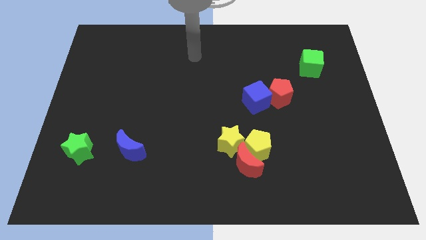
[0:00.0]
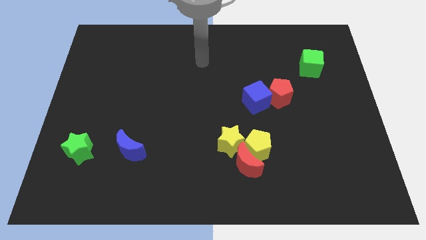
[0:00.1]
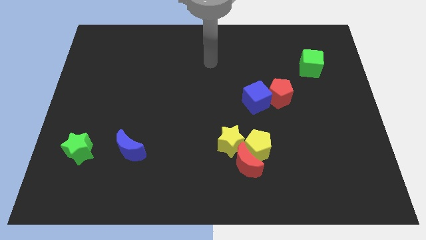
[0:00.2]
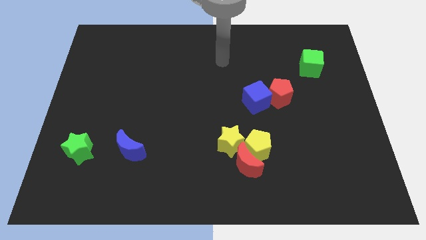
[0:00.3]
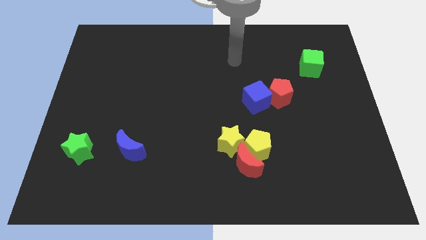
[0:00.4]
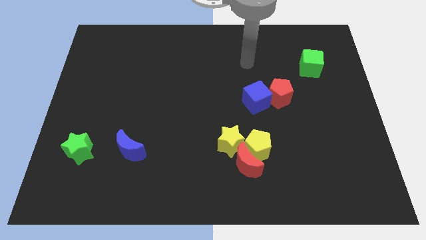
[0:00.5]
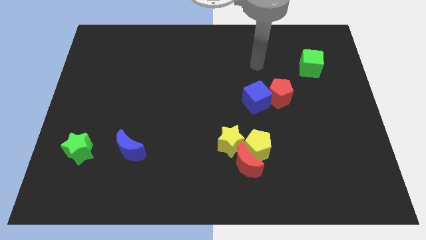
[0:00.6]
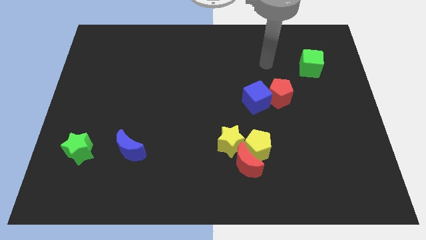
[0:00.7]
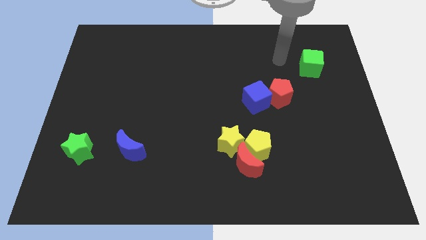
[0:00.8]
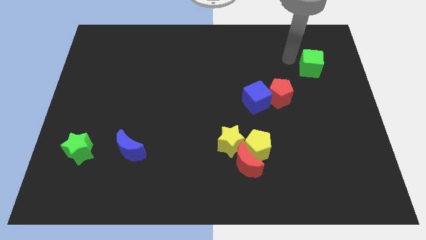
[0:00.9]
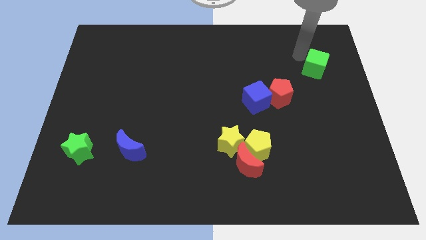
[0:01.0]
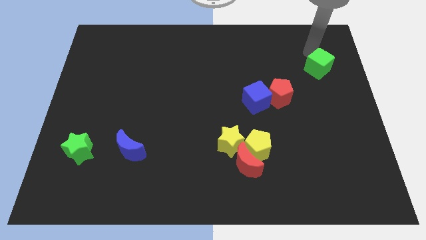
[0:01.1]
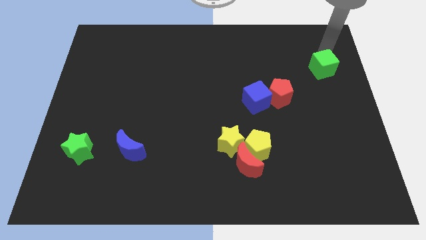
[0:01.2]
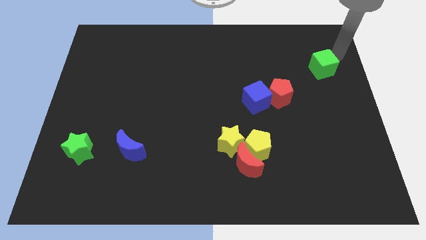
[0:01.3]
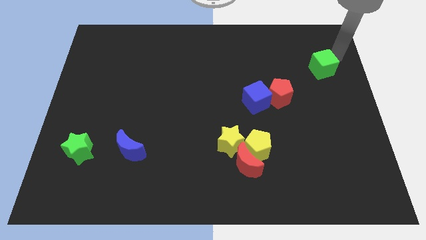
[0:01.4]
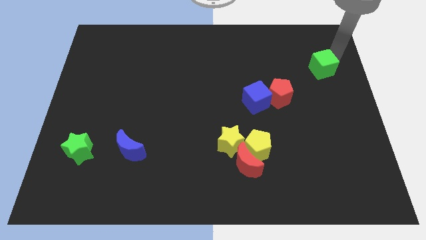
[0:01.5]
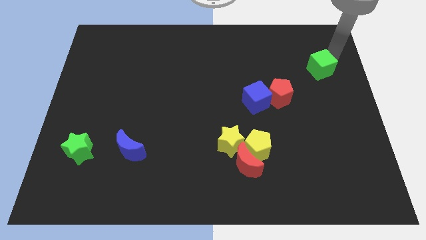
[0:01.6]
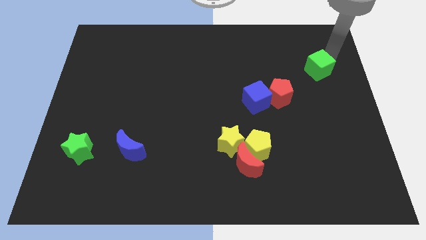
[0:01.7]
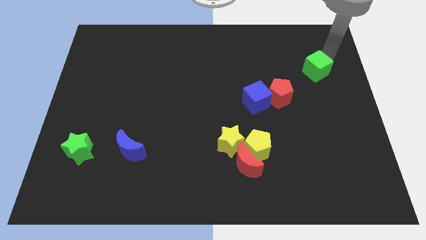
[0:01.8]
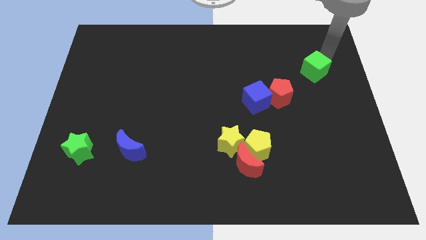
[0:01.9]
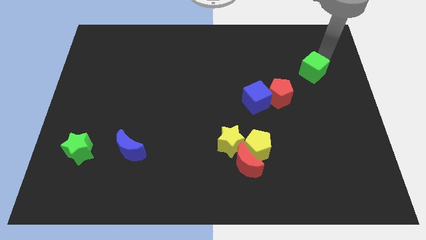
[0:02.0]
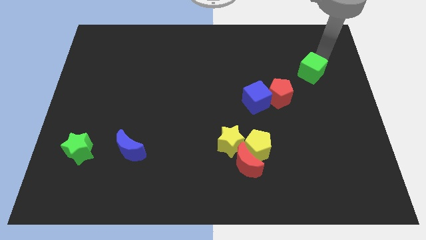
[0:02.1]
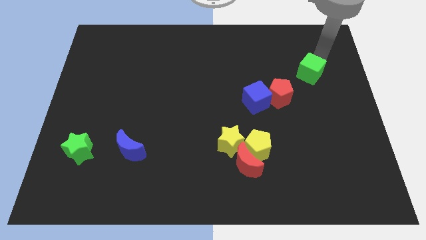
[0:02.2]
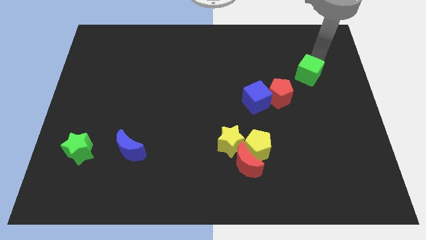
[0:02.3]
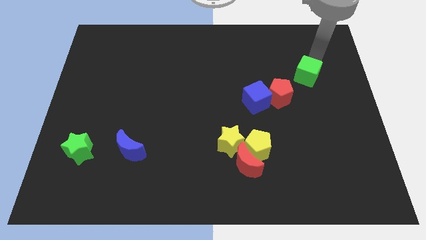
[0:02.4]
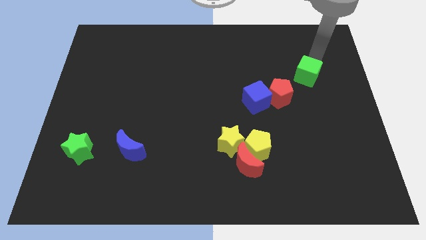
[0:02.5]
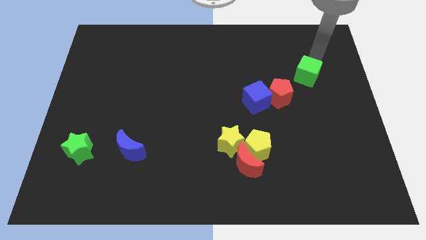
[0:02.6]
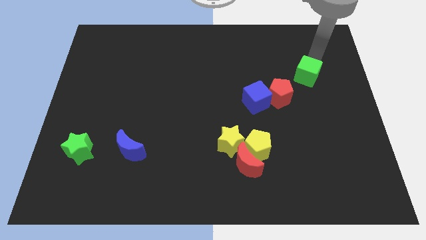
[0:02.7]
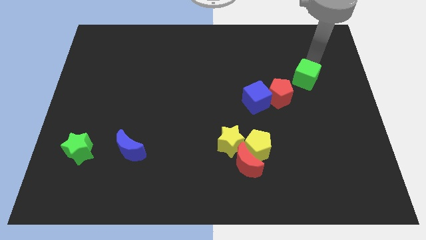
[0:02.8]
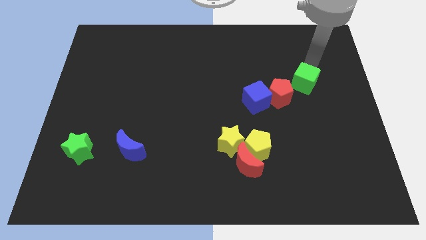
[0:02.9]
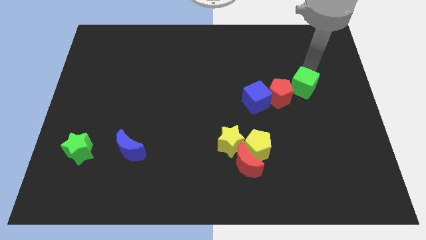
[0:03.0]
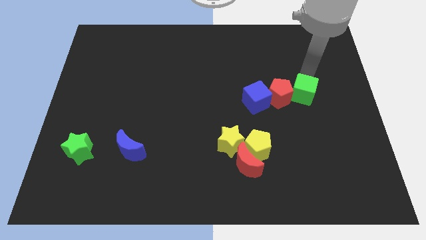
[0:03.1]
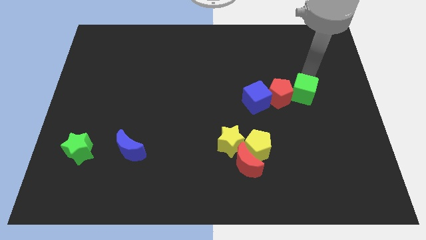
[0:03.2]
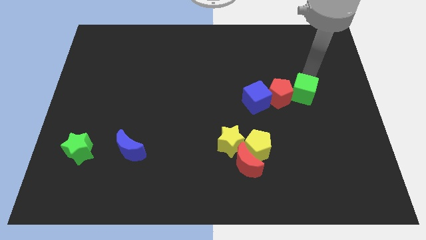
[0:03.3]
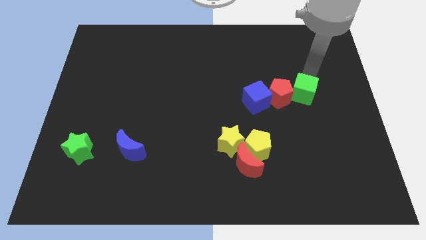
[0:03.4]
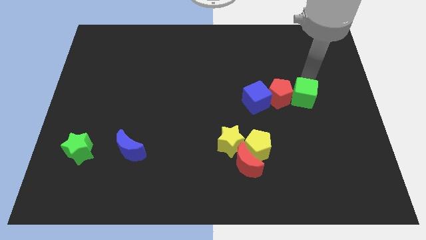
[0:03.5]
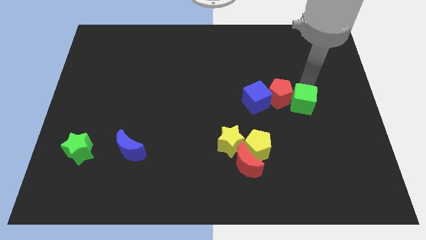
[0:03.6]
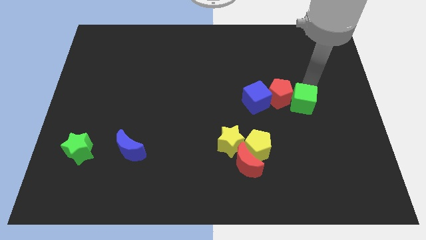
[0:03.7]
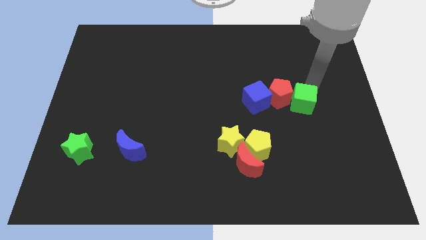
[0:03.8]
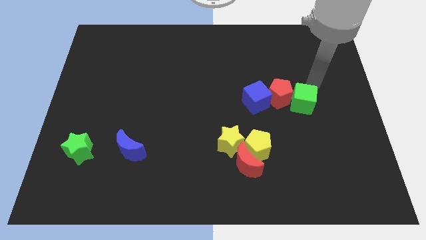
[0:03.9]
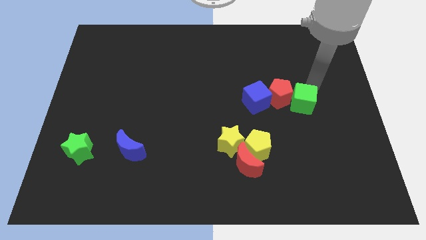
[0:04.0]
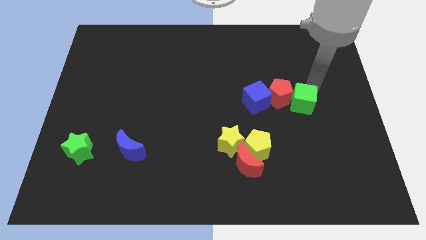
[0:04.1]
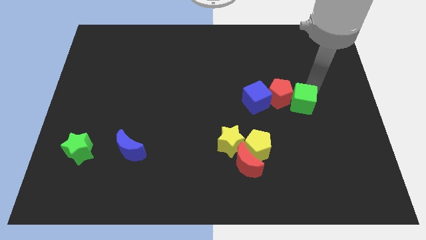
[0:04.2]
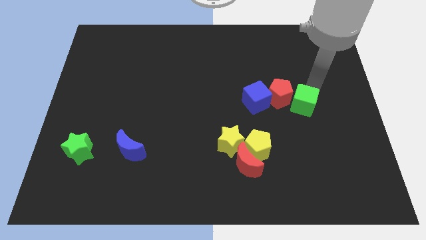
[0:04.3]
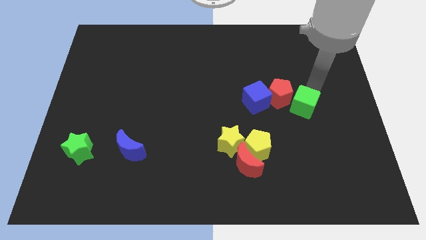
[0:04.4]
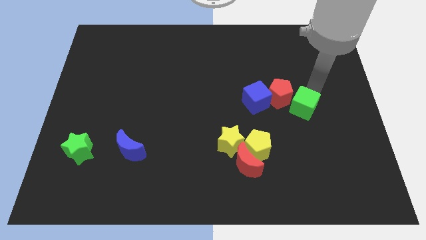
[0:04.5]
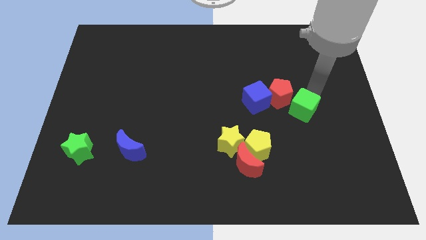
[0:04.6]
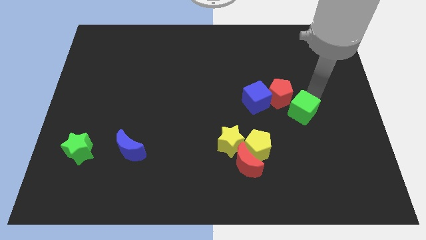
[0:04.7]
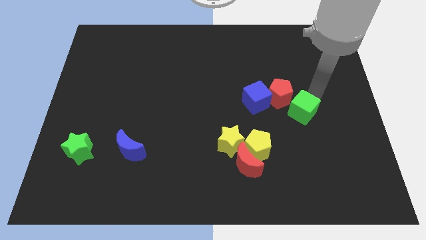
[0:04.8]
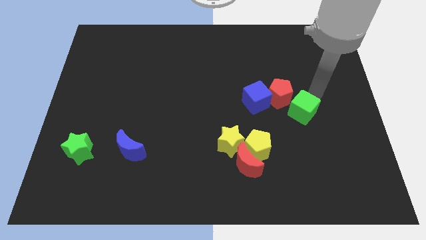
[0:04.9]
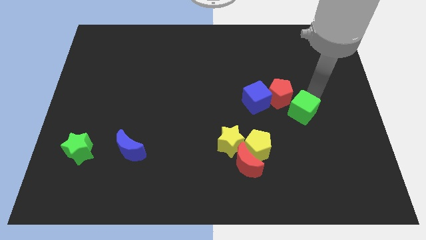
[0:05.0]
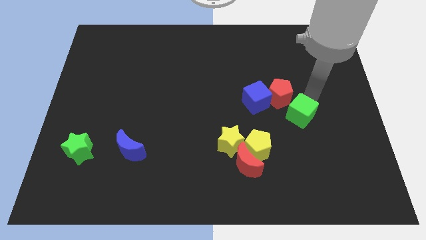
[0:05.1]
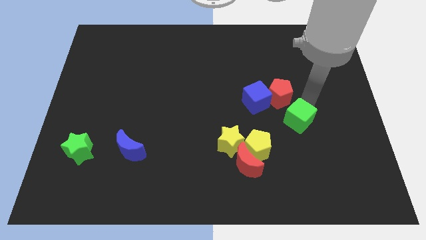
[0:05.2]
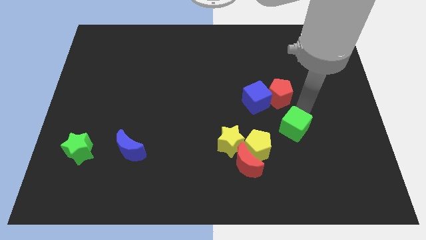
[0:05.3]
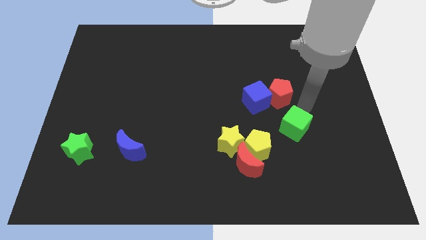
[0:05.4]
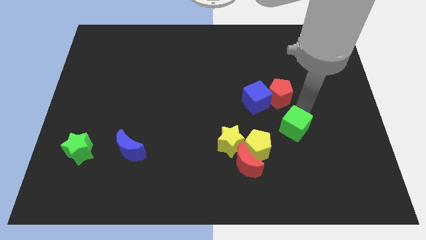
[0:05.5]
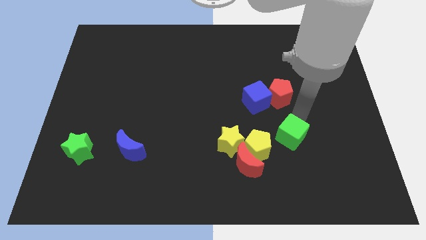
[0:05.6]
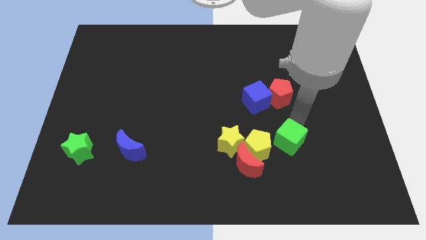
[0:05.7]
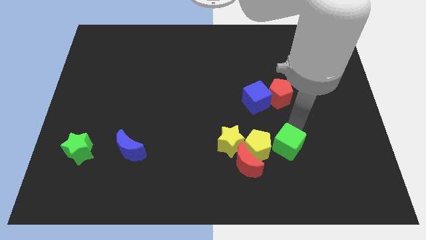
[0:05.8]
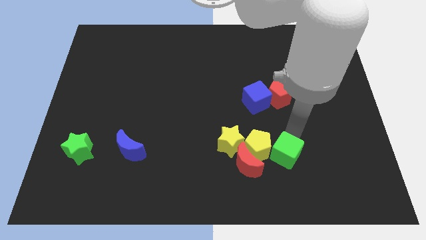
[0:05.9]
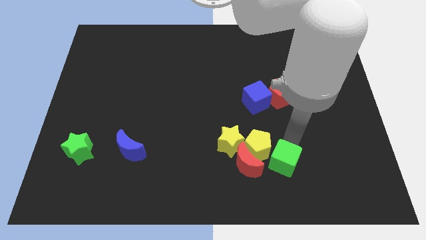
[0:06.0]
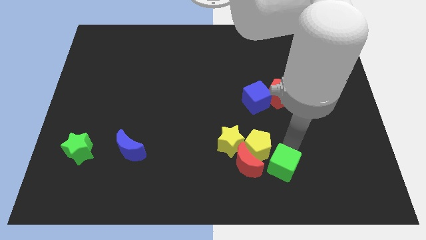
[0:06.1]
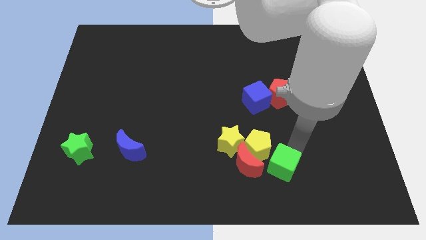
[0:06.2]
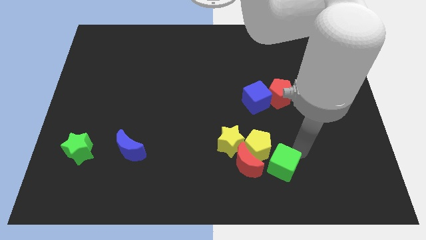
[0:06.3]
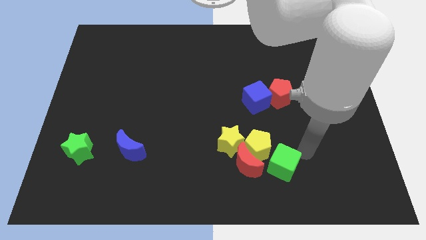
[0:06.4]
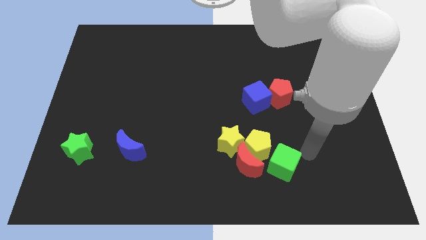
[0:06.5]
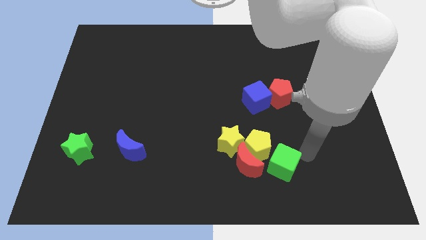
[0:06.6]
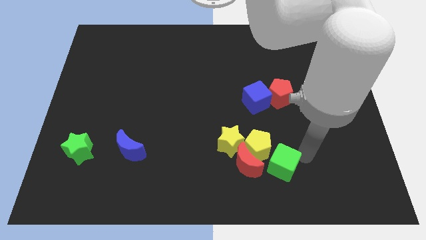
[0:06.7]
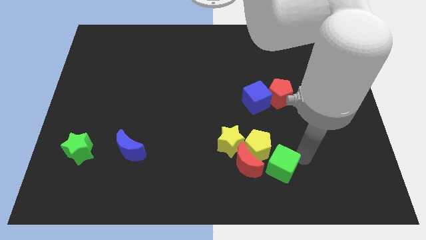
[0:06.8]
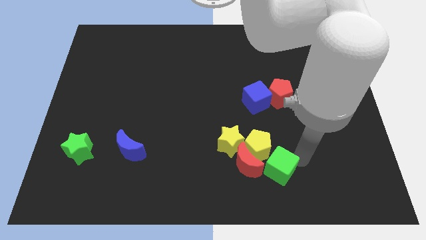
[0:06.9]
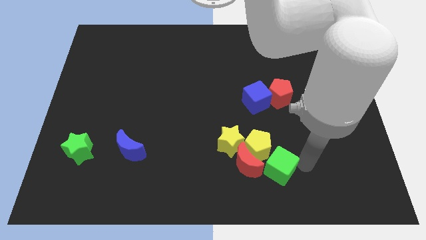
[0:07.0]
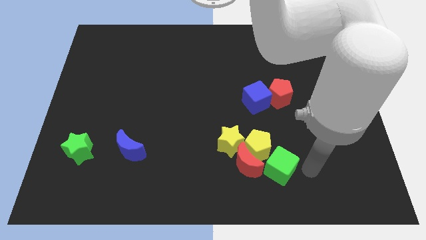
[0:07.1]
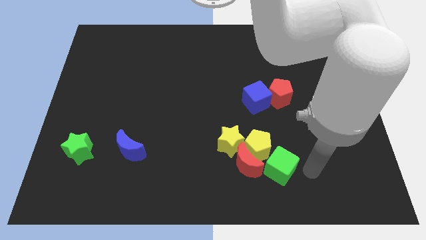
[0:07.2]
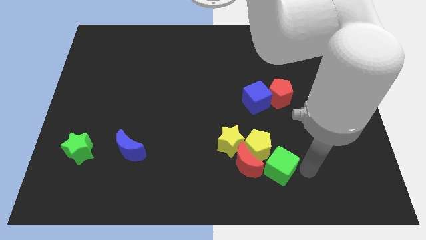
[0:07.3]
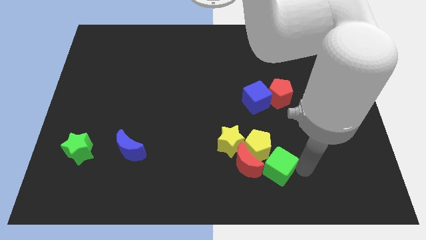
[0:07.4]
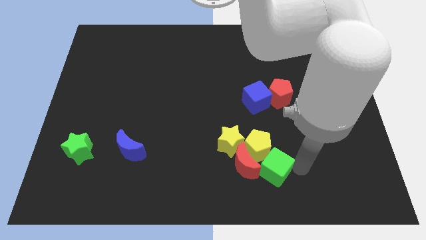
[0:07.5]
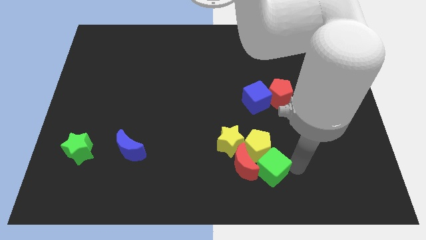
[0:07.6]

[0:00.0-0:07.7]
slide the green cube towards the red moon
